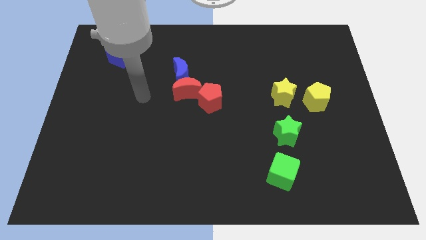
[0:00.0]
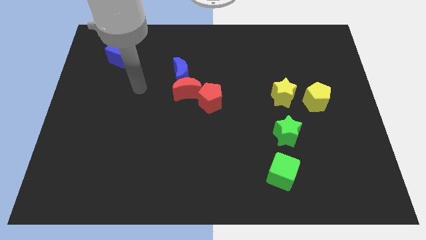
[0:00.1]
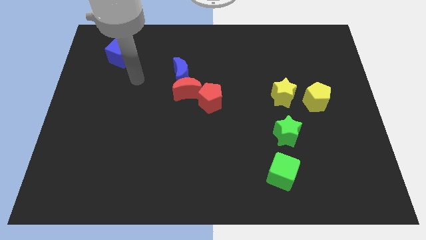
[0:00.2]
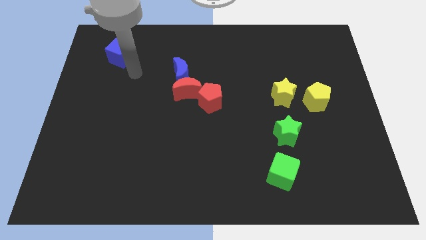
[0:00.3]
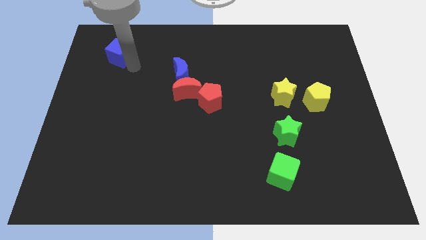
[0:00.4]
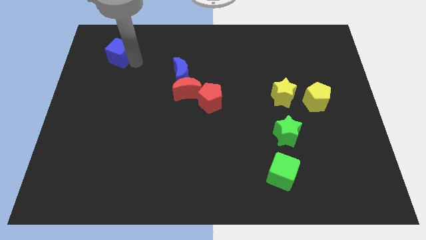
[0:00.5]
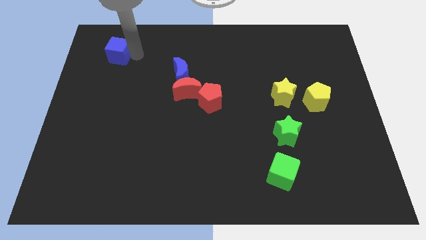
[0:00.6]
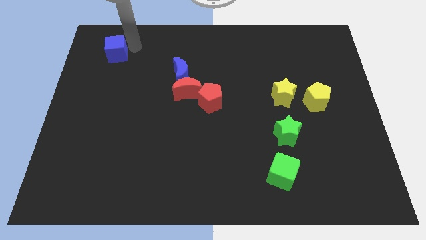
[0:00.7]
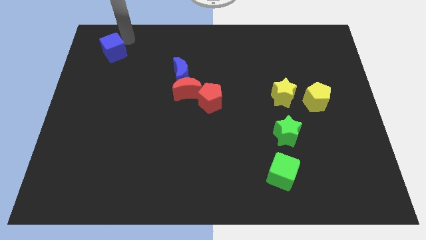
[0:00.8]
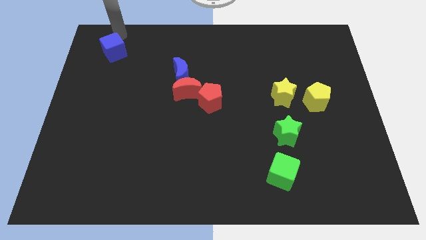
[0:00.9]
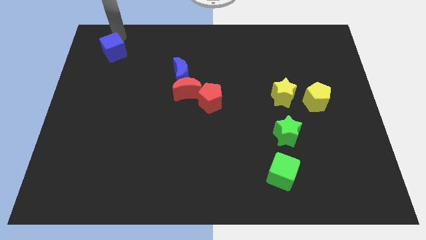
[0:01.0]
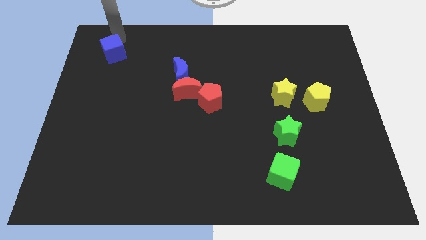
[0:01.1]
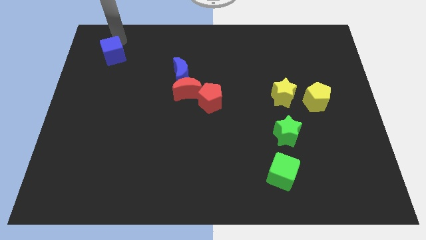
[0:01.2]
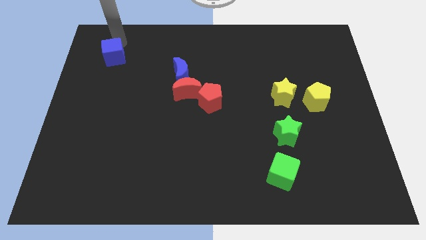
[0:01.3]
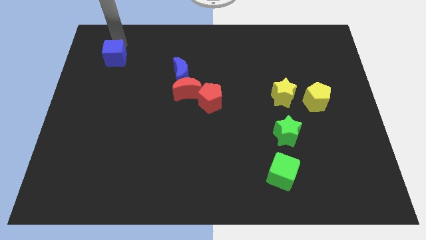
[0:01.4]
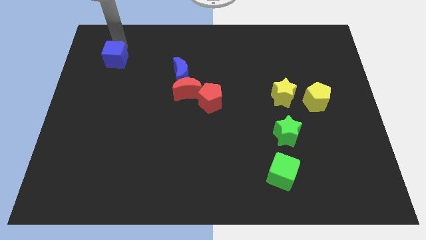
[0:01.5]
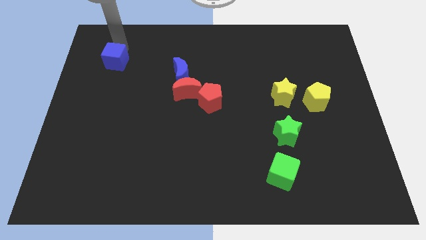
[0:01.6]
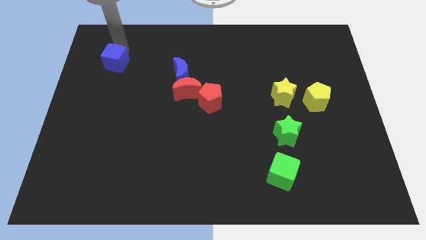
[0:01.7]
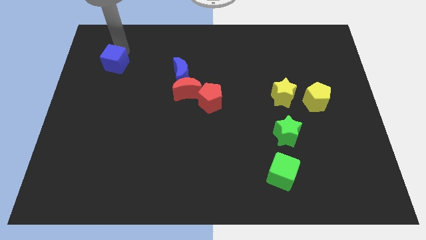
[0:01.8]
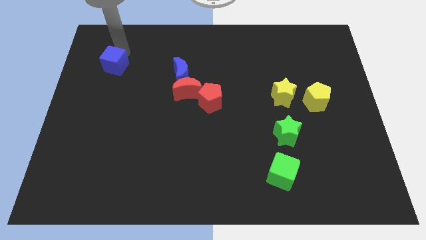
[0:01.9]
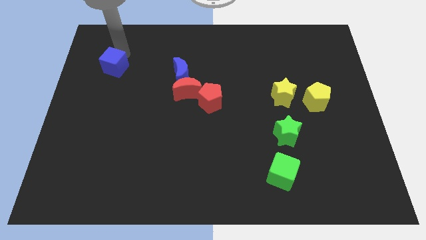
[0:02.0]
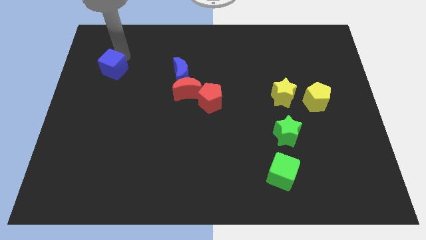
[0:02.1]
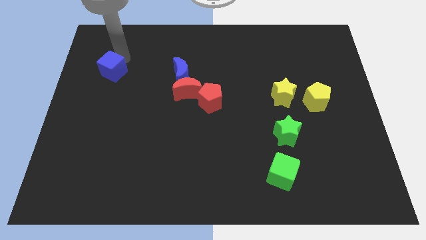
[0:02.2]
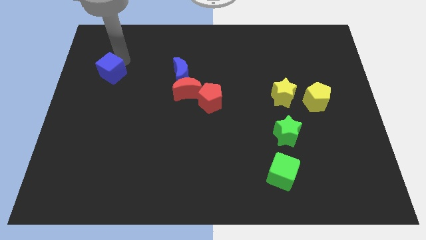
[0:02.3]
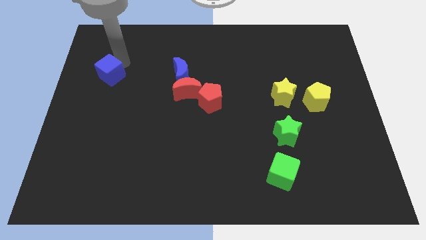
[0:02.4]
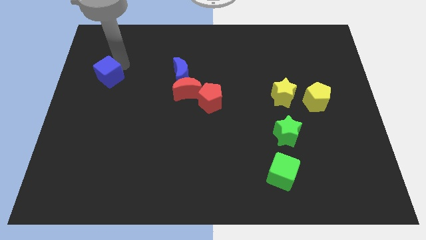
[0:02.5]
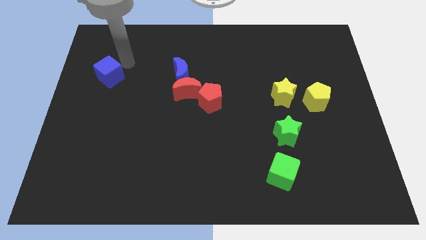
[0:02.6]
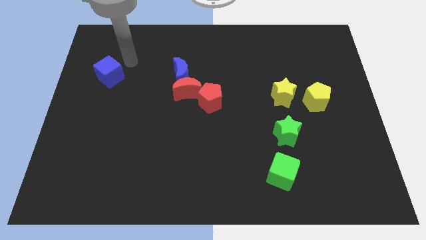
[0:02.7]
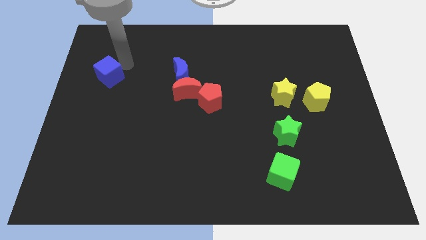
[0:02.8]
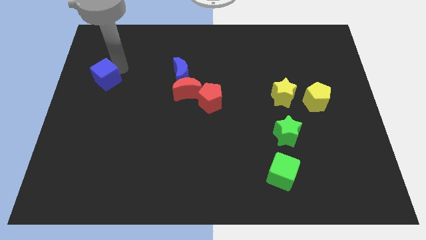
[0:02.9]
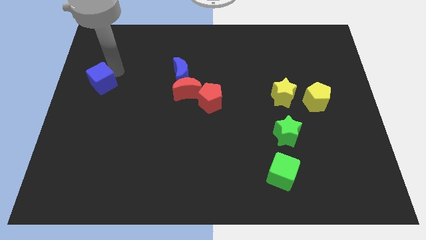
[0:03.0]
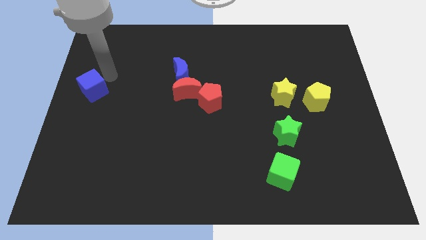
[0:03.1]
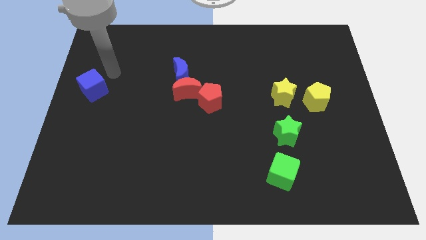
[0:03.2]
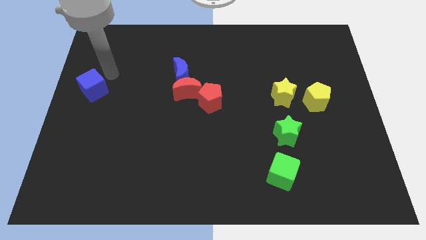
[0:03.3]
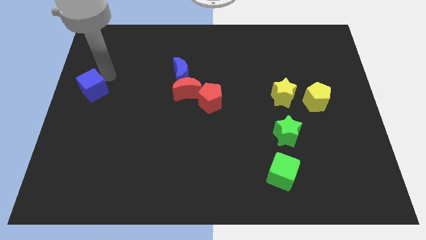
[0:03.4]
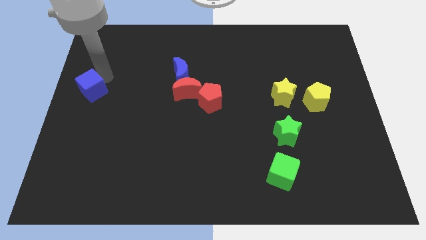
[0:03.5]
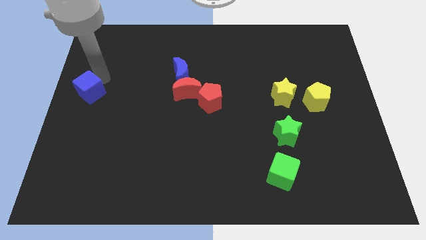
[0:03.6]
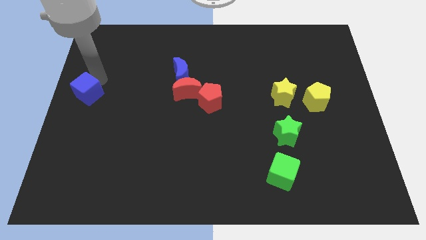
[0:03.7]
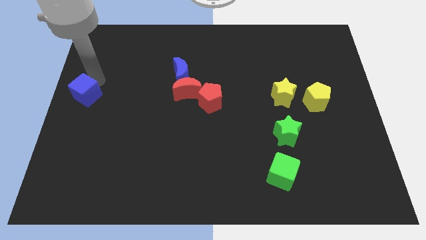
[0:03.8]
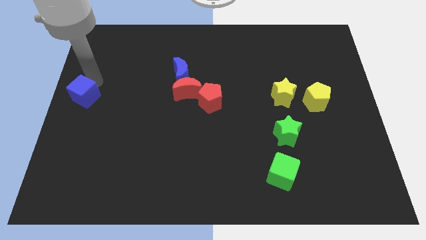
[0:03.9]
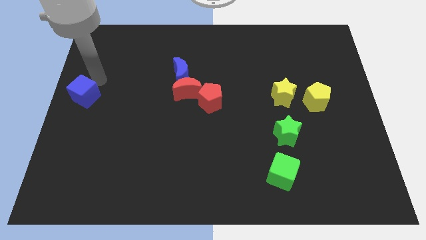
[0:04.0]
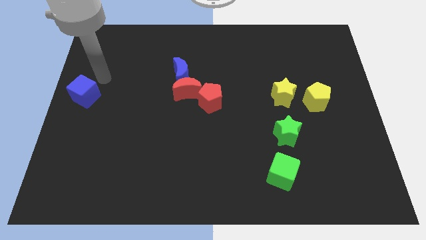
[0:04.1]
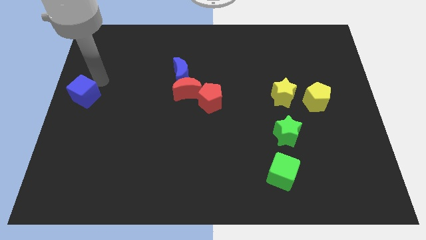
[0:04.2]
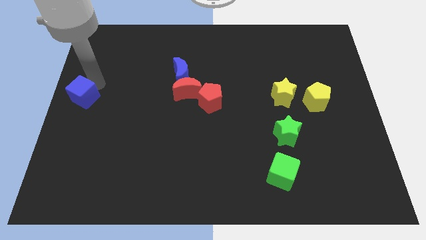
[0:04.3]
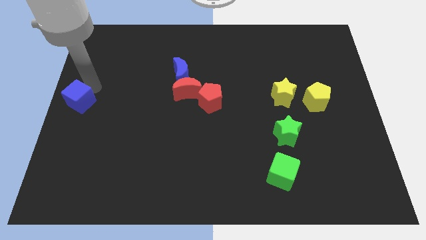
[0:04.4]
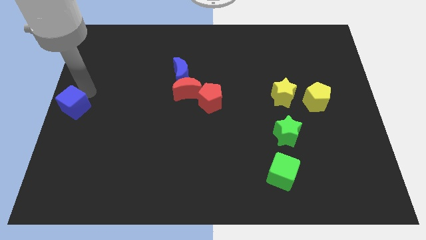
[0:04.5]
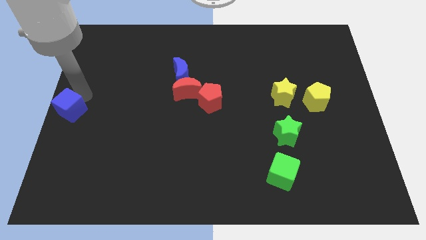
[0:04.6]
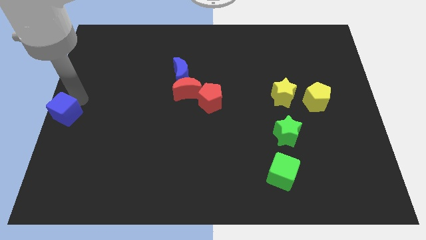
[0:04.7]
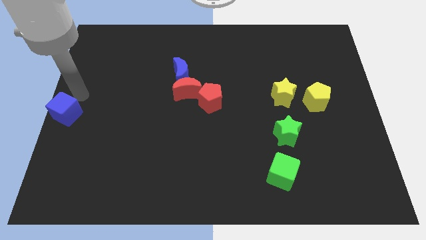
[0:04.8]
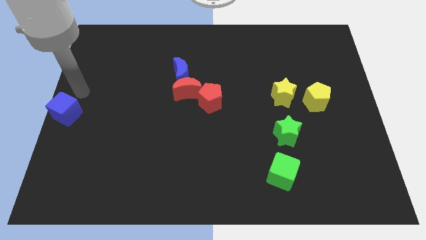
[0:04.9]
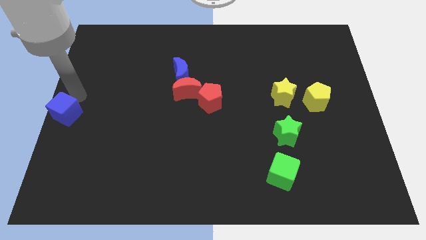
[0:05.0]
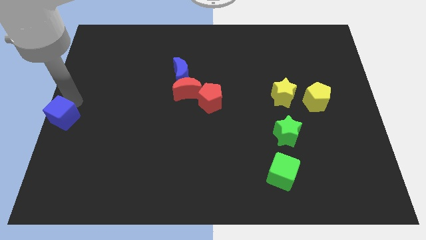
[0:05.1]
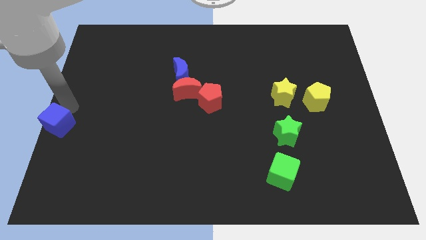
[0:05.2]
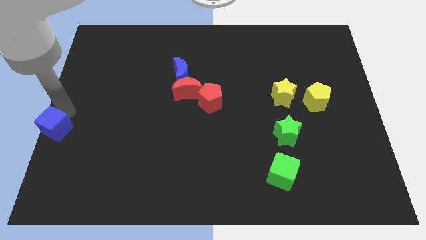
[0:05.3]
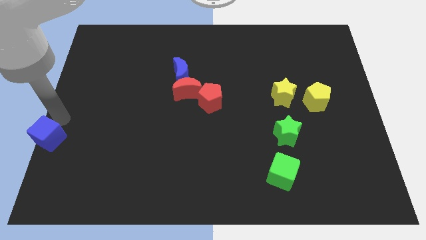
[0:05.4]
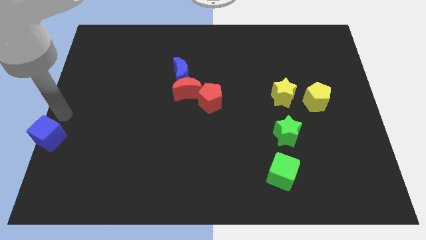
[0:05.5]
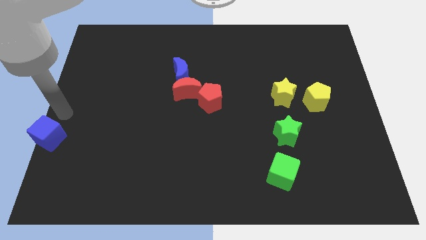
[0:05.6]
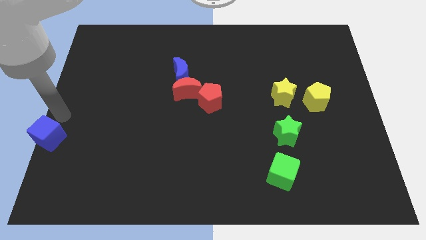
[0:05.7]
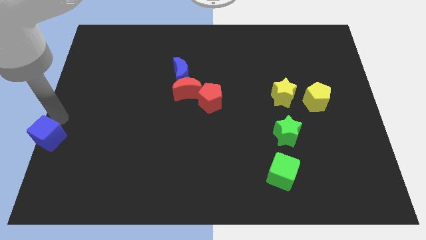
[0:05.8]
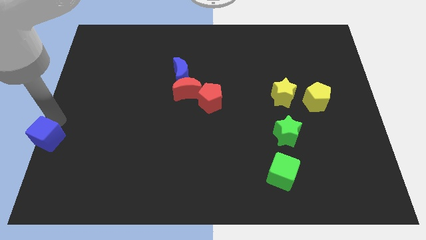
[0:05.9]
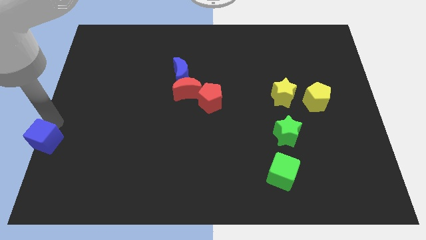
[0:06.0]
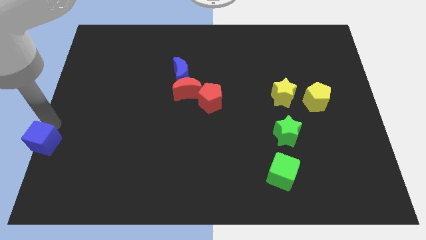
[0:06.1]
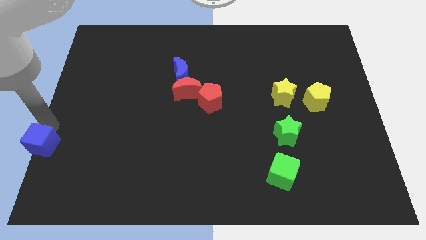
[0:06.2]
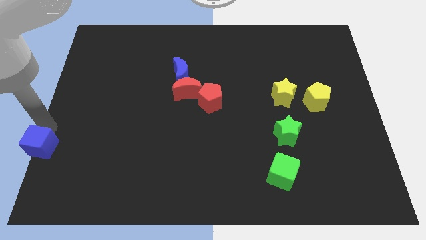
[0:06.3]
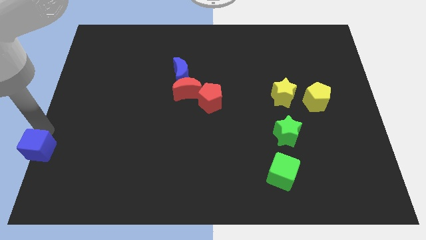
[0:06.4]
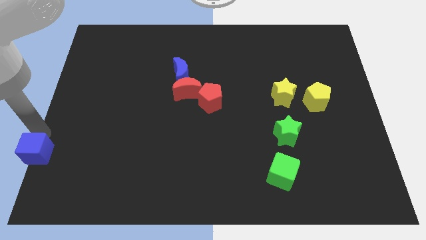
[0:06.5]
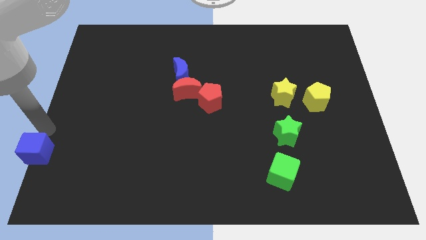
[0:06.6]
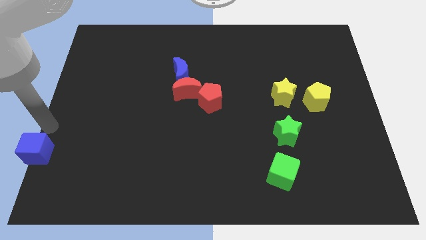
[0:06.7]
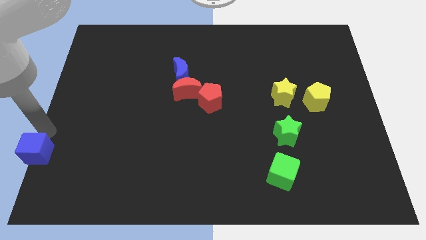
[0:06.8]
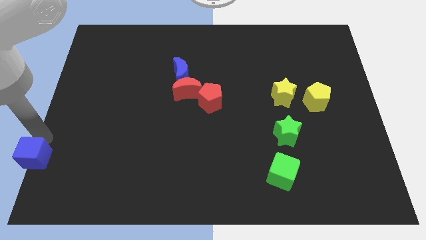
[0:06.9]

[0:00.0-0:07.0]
move the blue cube to the bottom left of the board
